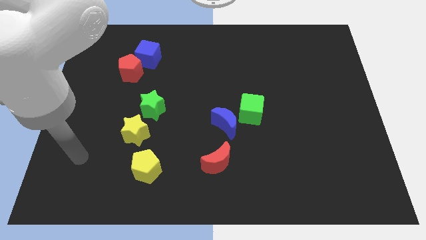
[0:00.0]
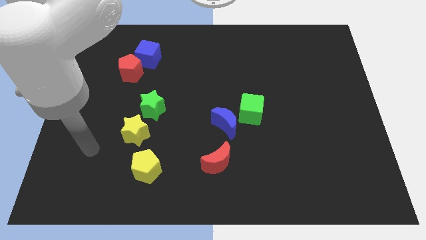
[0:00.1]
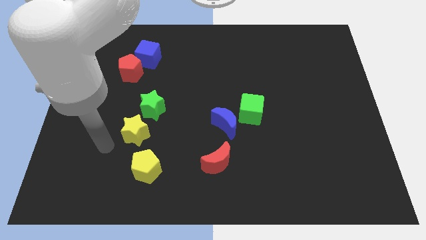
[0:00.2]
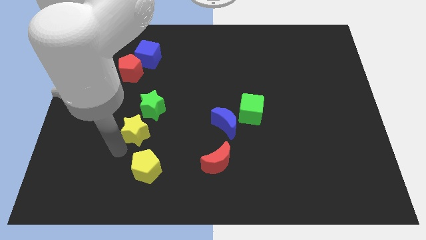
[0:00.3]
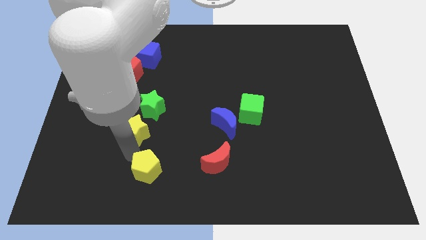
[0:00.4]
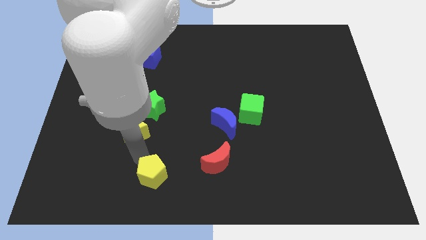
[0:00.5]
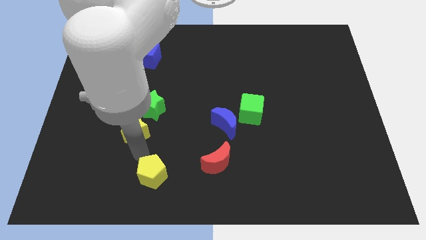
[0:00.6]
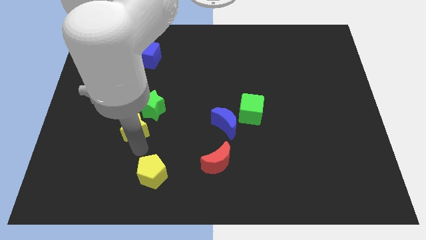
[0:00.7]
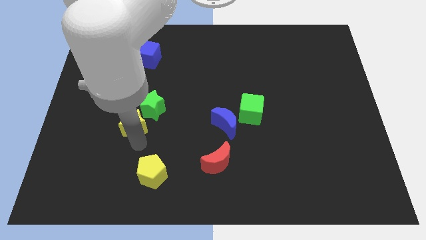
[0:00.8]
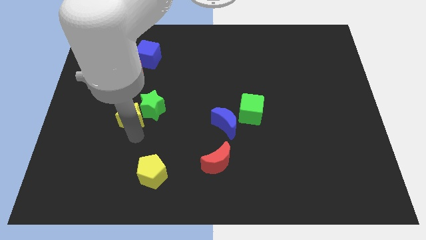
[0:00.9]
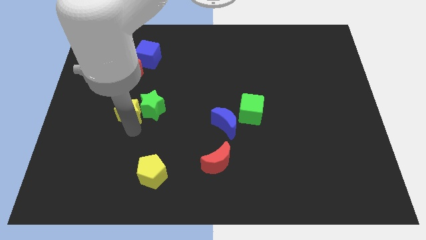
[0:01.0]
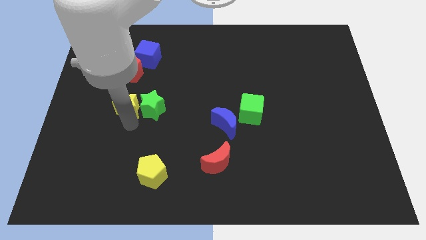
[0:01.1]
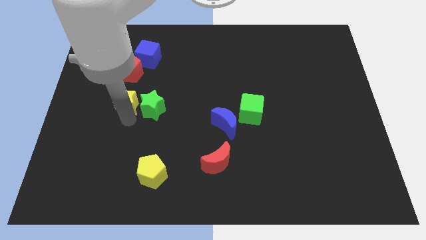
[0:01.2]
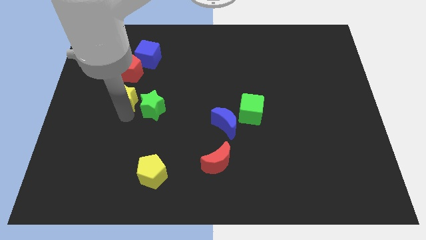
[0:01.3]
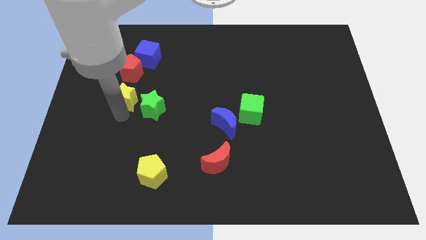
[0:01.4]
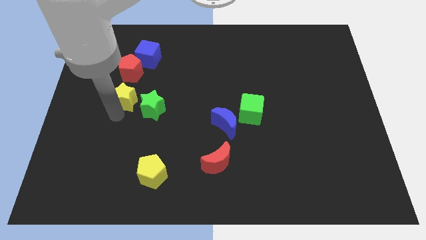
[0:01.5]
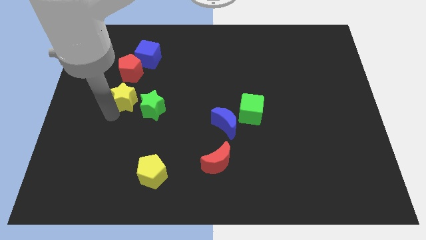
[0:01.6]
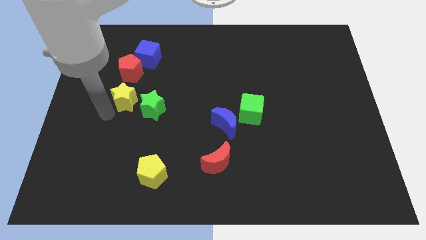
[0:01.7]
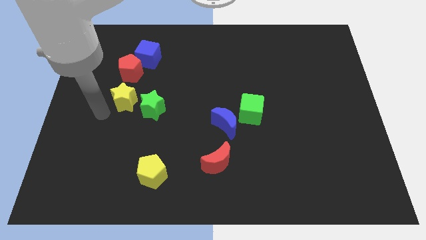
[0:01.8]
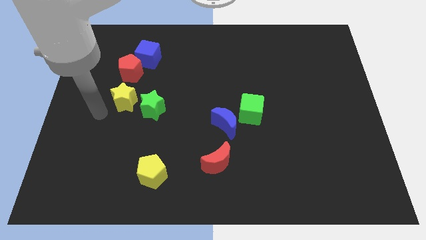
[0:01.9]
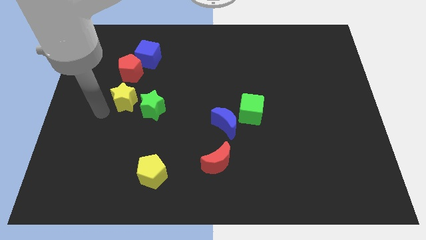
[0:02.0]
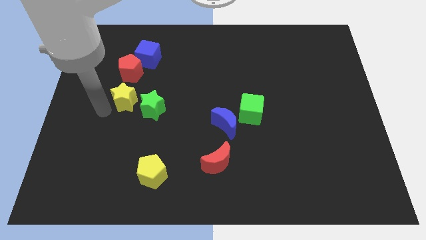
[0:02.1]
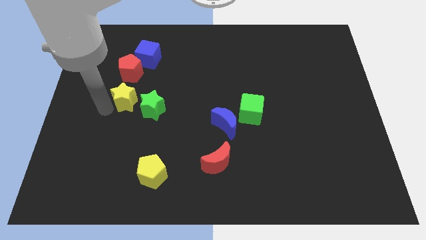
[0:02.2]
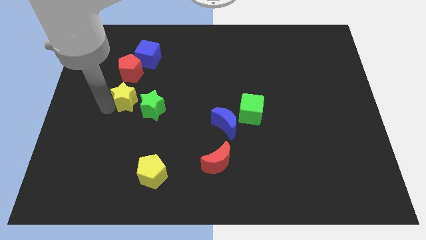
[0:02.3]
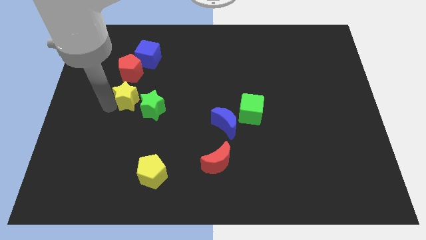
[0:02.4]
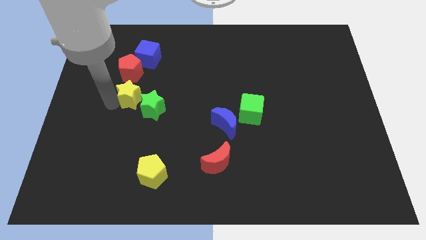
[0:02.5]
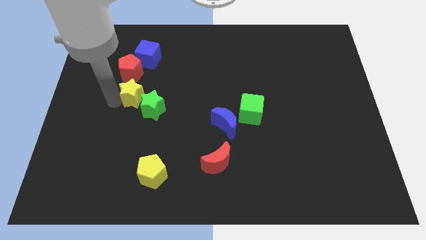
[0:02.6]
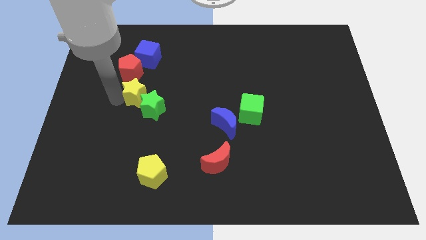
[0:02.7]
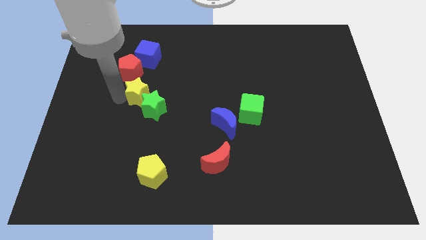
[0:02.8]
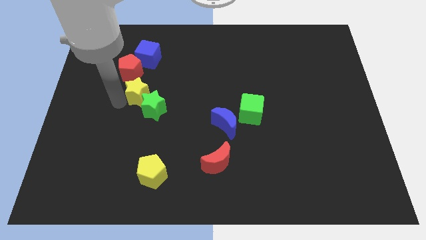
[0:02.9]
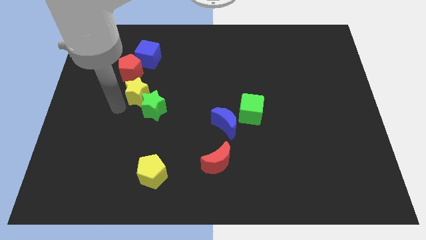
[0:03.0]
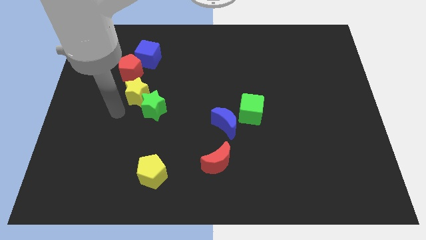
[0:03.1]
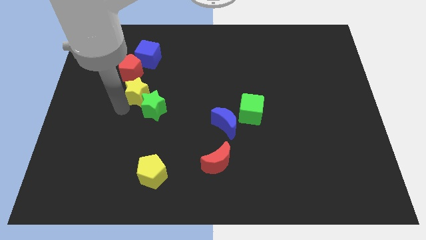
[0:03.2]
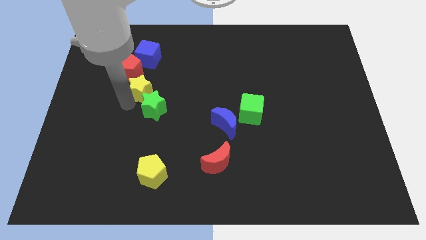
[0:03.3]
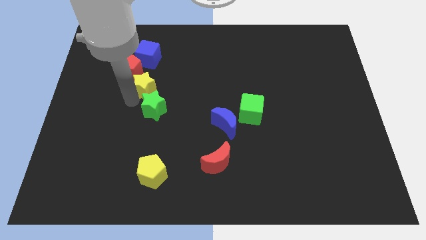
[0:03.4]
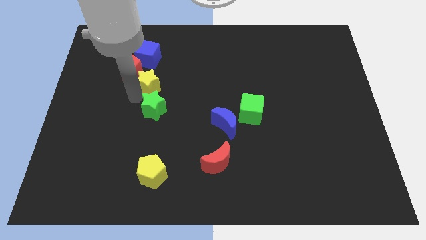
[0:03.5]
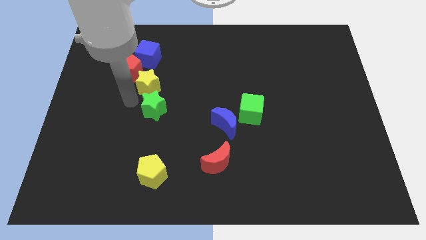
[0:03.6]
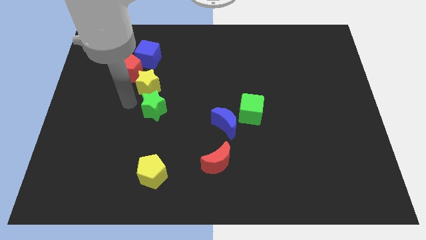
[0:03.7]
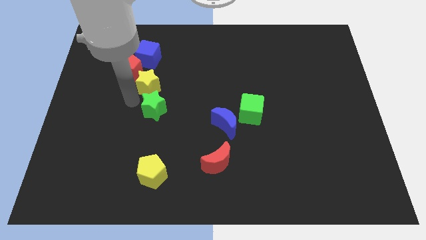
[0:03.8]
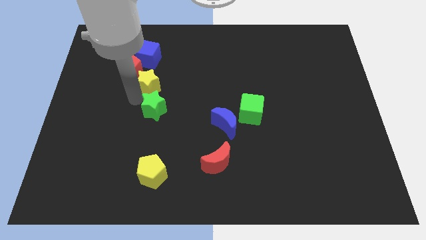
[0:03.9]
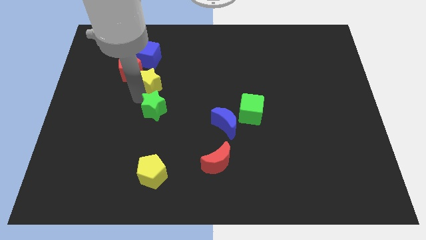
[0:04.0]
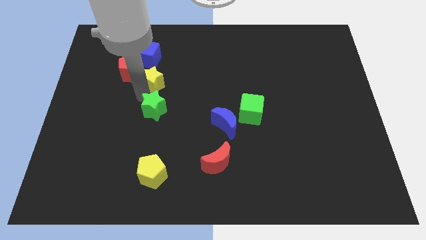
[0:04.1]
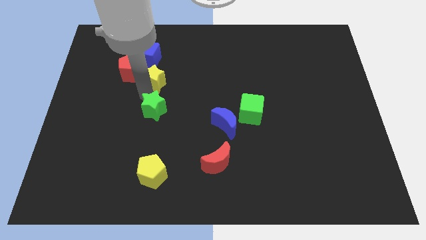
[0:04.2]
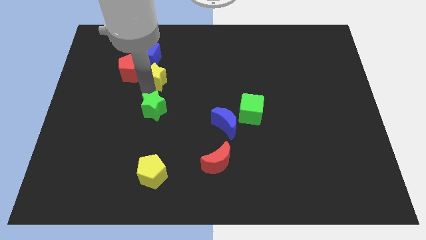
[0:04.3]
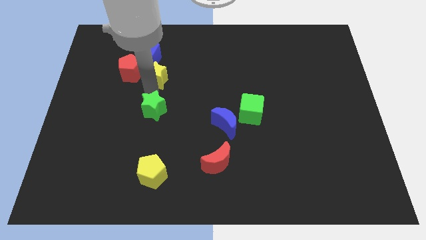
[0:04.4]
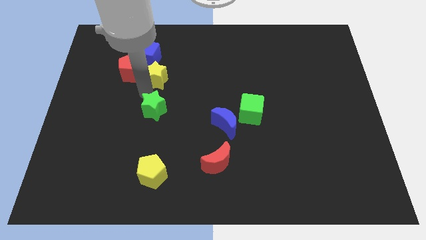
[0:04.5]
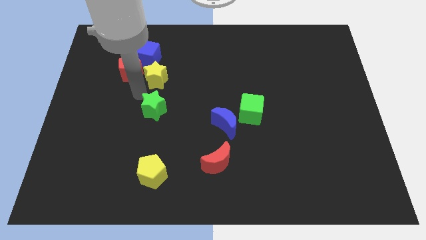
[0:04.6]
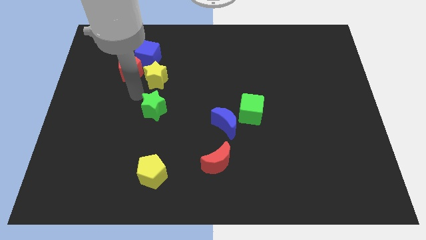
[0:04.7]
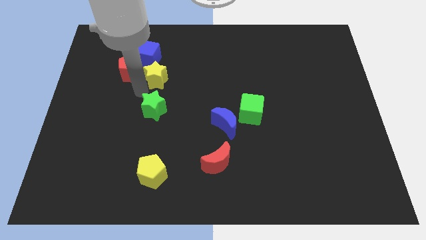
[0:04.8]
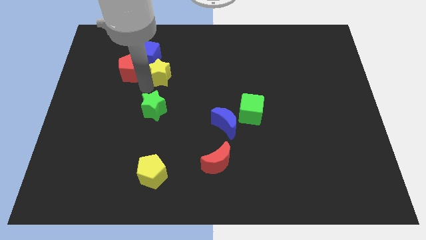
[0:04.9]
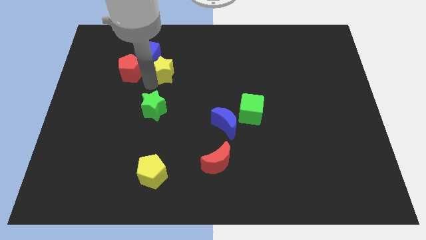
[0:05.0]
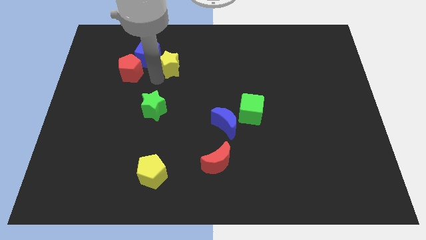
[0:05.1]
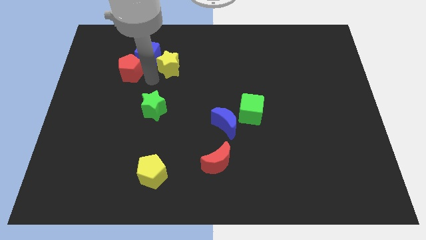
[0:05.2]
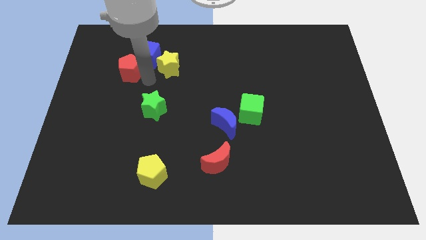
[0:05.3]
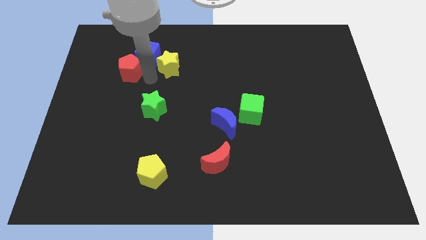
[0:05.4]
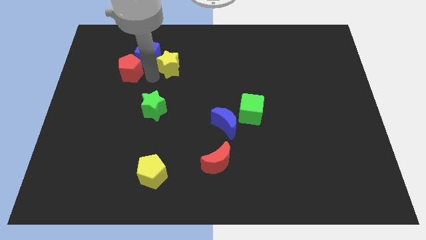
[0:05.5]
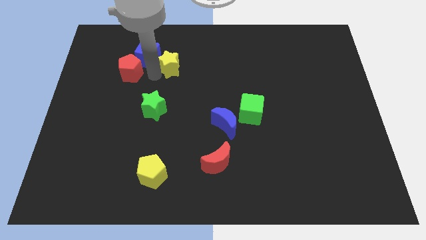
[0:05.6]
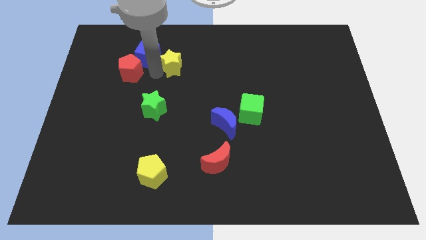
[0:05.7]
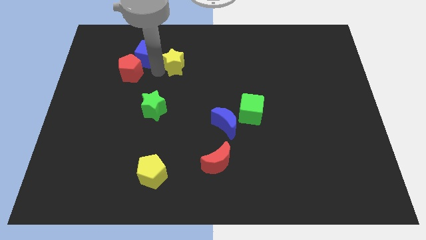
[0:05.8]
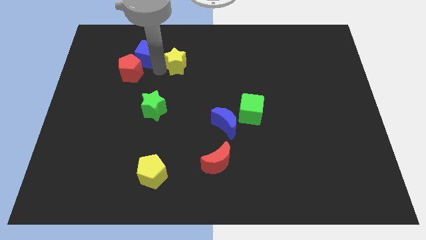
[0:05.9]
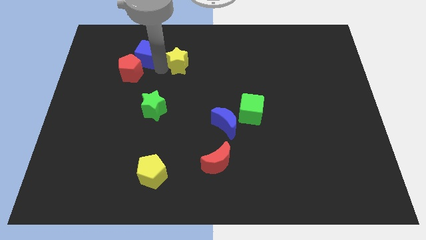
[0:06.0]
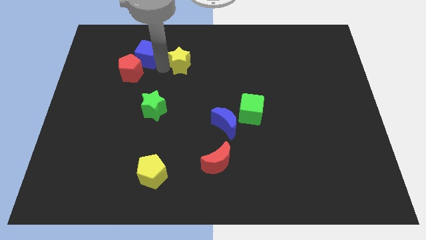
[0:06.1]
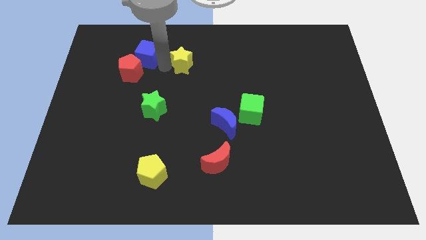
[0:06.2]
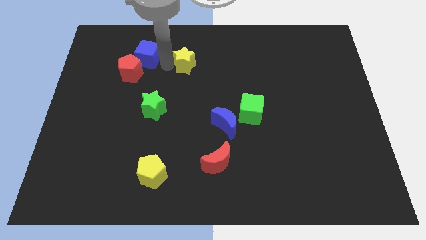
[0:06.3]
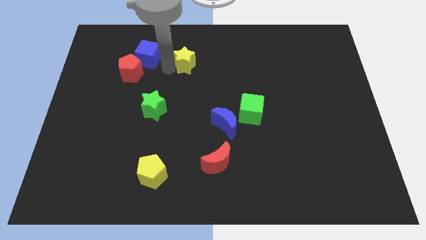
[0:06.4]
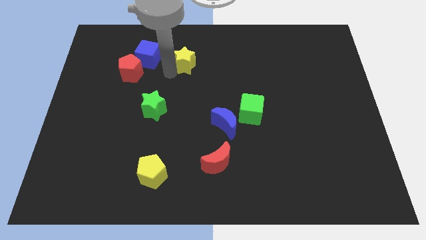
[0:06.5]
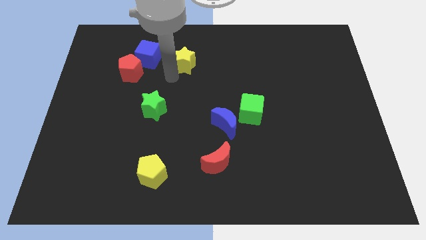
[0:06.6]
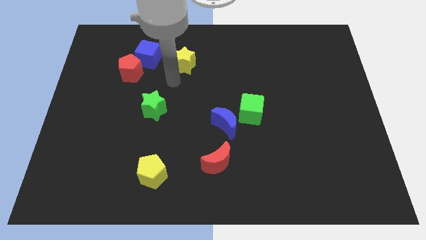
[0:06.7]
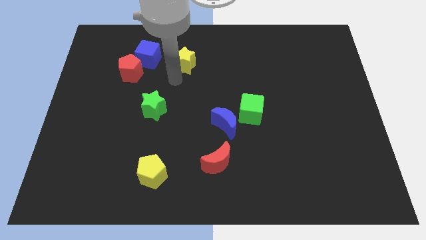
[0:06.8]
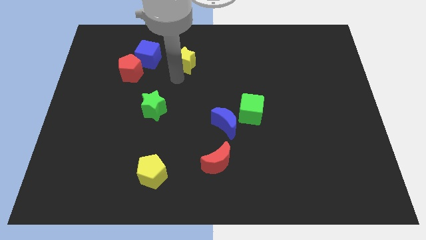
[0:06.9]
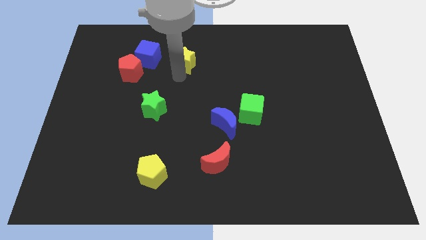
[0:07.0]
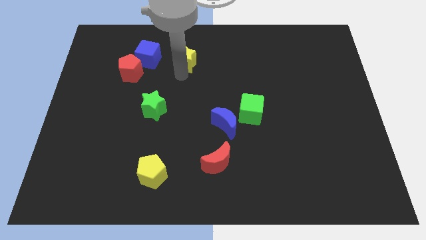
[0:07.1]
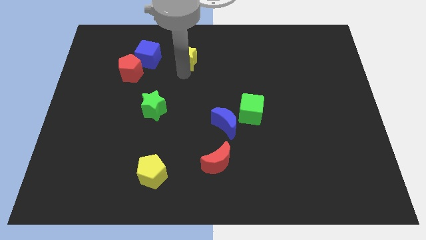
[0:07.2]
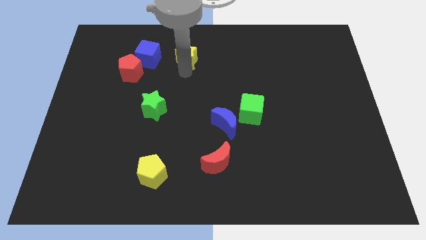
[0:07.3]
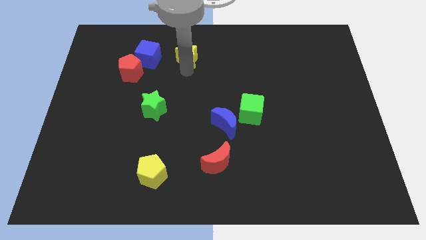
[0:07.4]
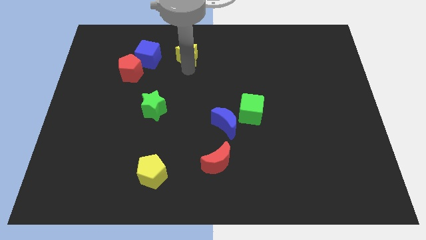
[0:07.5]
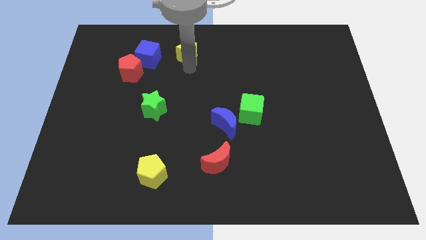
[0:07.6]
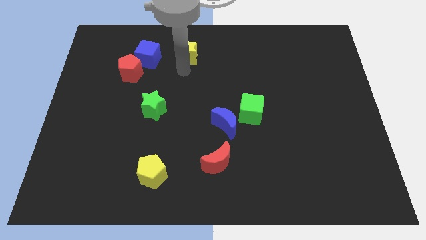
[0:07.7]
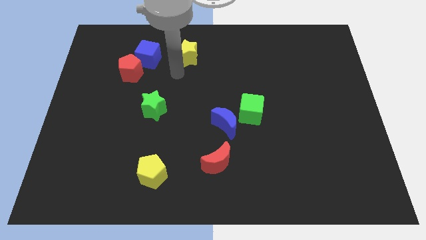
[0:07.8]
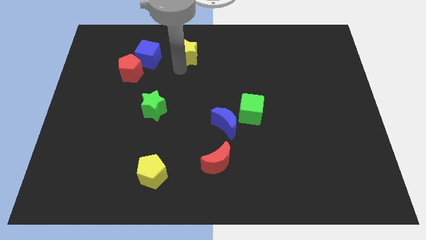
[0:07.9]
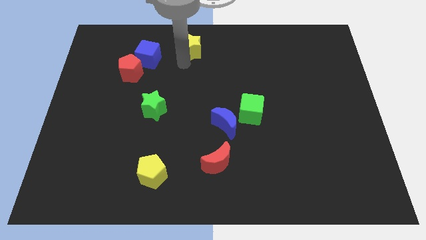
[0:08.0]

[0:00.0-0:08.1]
push the yellow star to the towards your base
